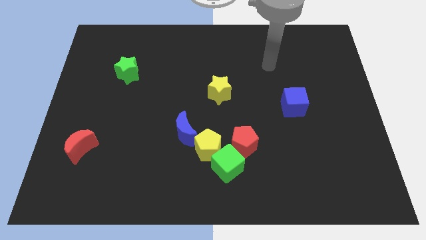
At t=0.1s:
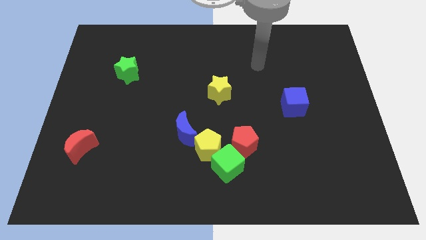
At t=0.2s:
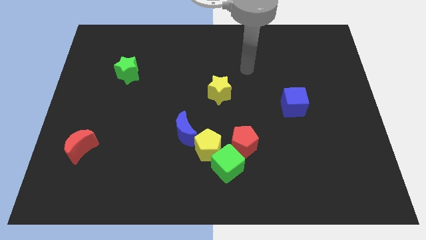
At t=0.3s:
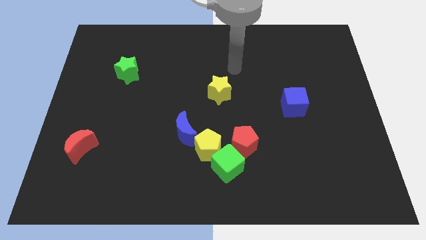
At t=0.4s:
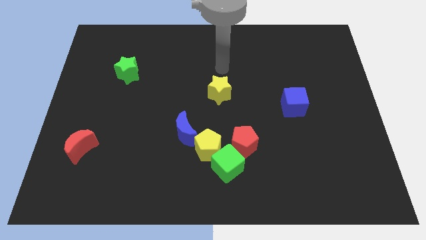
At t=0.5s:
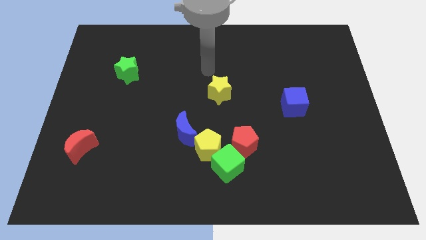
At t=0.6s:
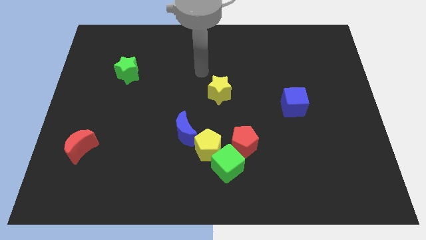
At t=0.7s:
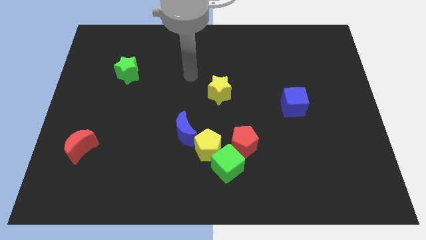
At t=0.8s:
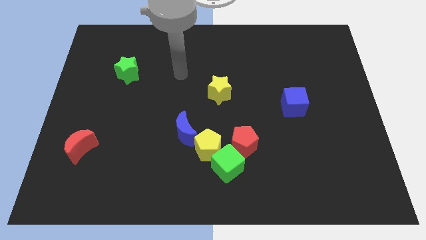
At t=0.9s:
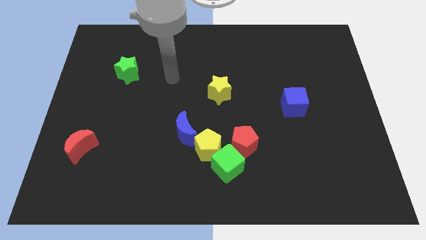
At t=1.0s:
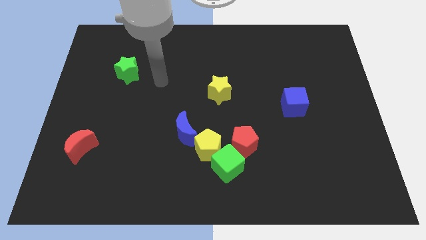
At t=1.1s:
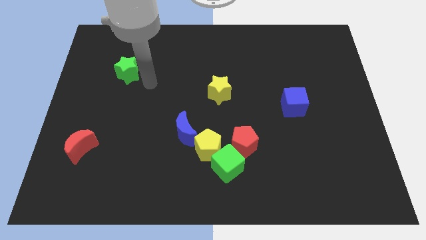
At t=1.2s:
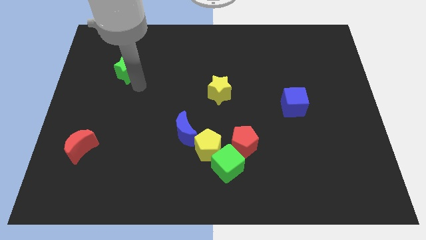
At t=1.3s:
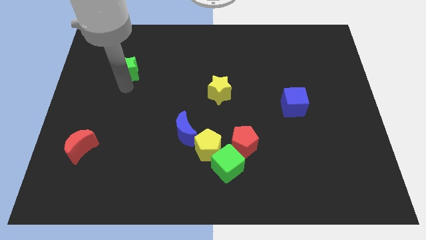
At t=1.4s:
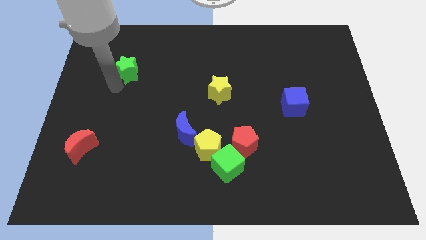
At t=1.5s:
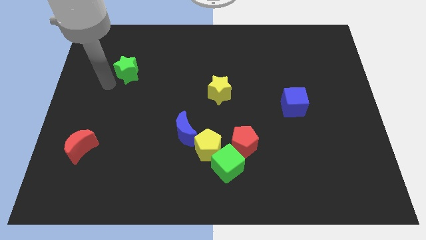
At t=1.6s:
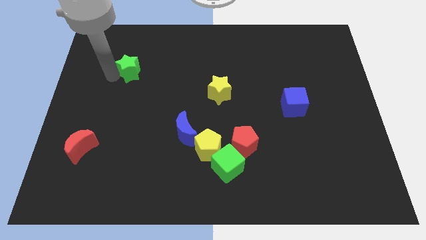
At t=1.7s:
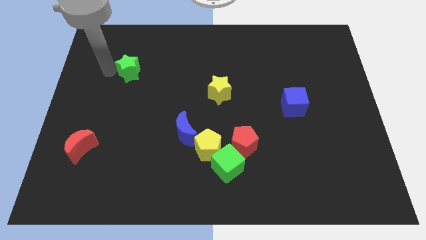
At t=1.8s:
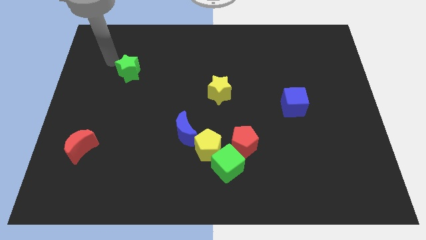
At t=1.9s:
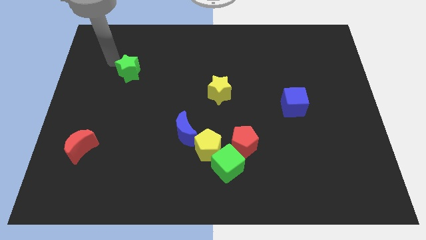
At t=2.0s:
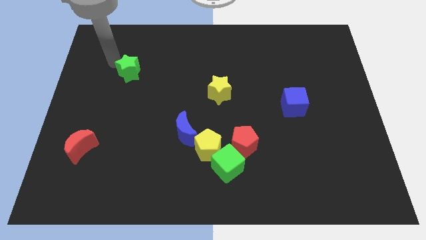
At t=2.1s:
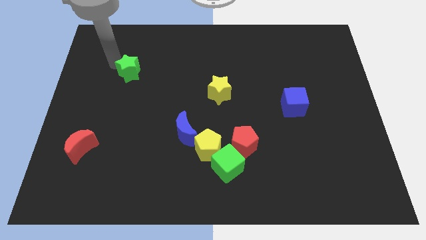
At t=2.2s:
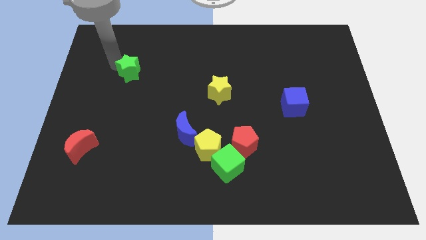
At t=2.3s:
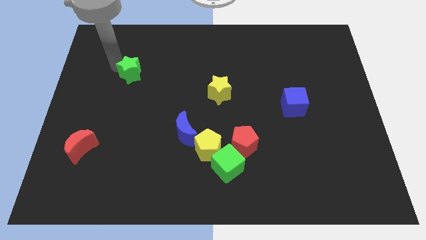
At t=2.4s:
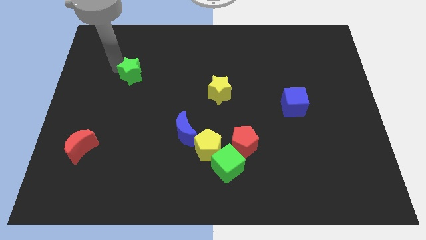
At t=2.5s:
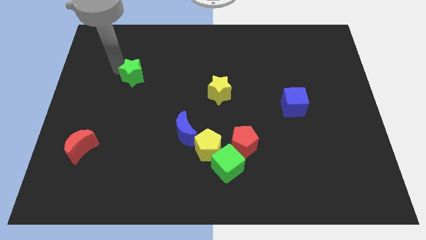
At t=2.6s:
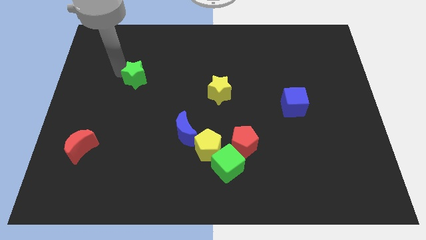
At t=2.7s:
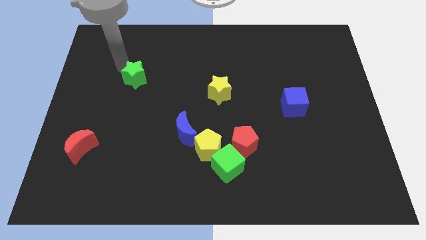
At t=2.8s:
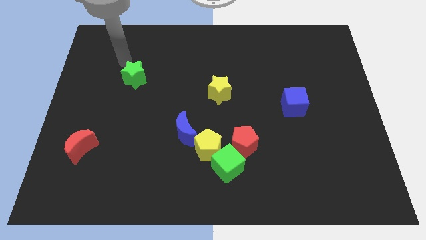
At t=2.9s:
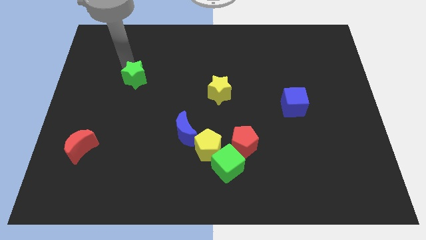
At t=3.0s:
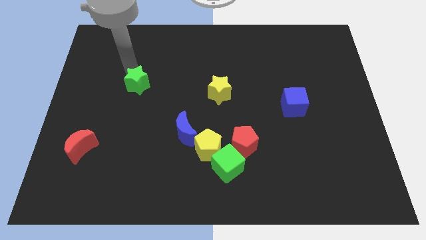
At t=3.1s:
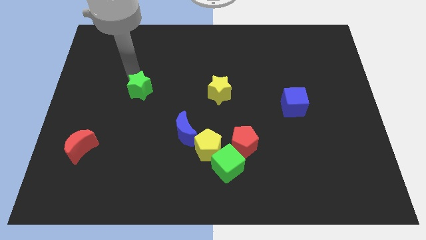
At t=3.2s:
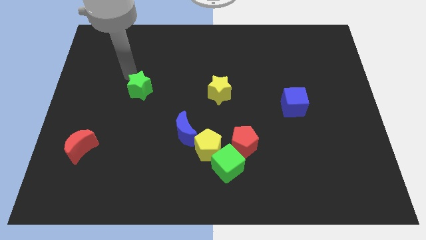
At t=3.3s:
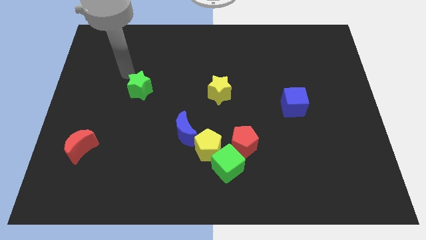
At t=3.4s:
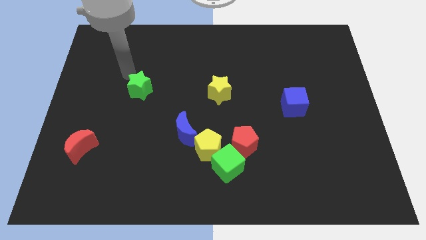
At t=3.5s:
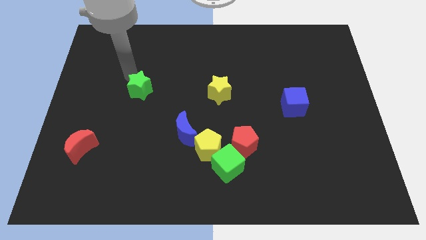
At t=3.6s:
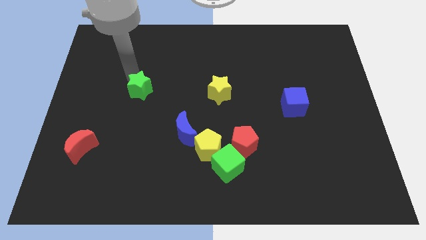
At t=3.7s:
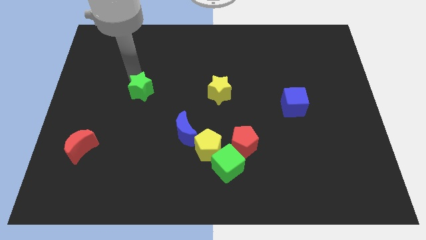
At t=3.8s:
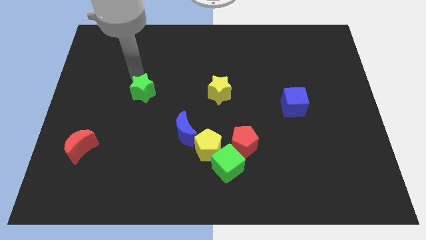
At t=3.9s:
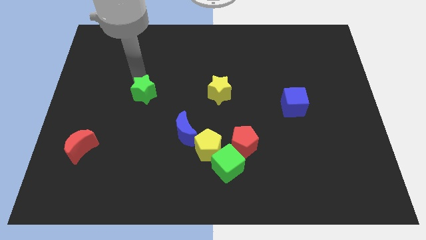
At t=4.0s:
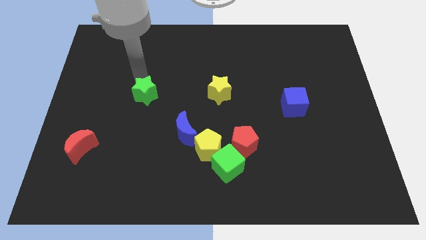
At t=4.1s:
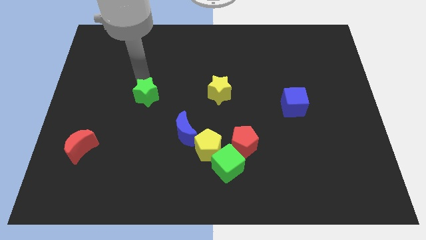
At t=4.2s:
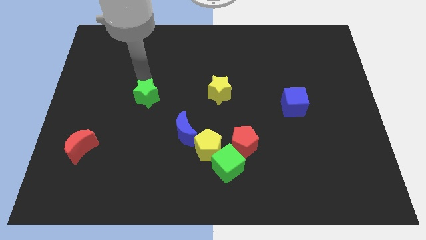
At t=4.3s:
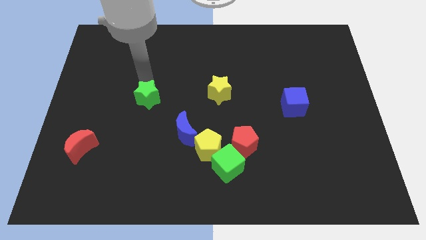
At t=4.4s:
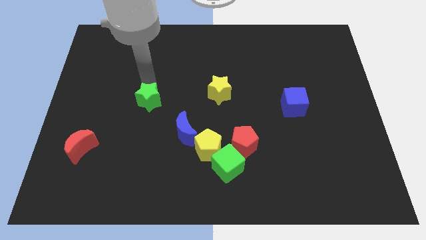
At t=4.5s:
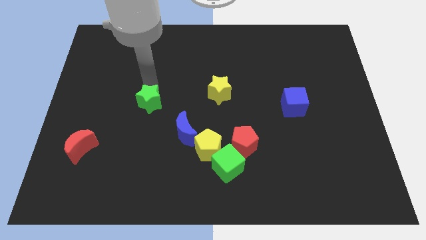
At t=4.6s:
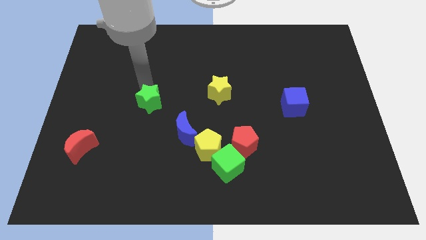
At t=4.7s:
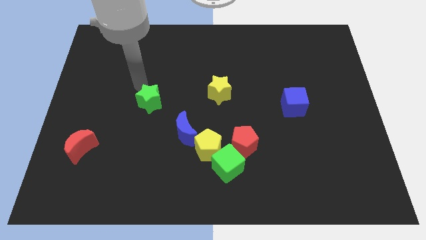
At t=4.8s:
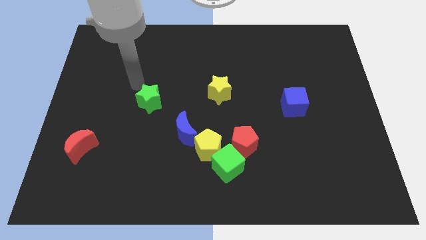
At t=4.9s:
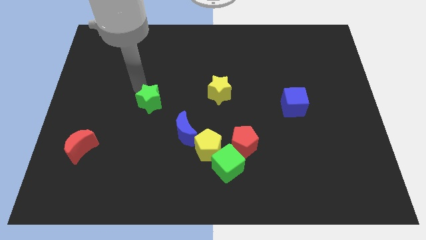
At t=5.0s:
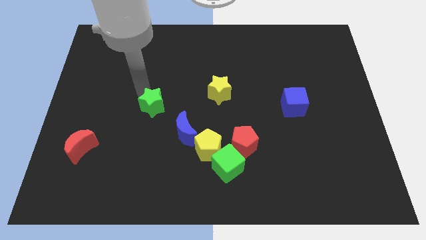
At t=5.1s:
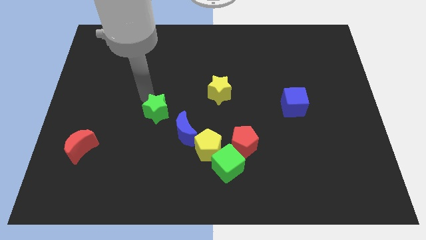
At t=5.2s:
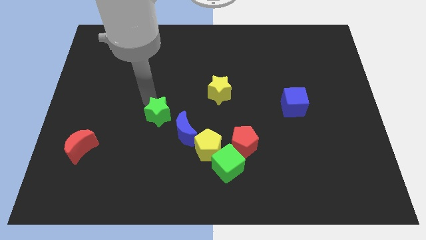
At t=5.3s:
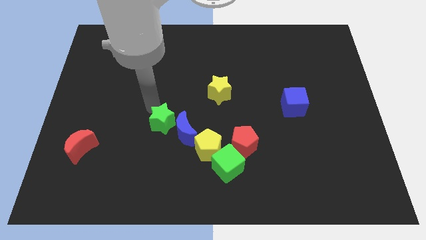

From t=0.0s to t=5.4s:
move the green star close to the blue moon

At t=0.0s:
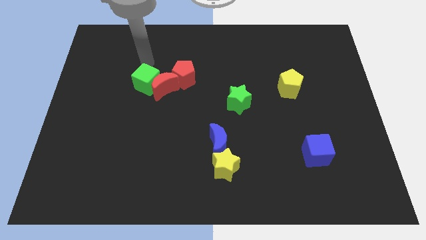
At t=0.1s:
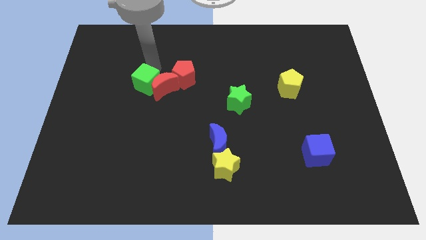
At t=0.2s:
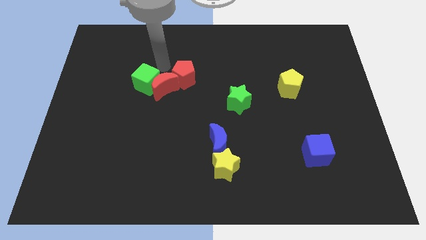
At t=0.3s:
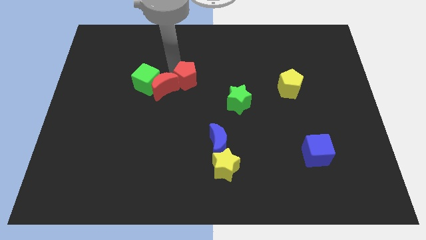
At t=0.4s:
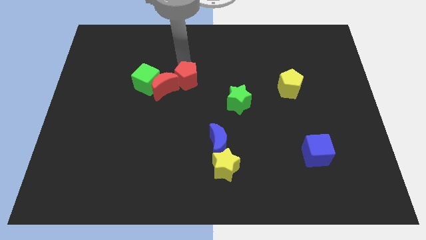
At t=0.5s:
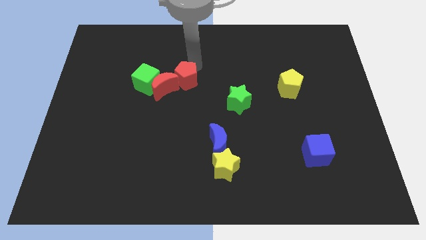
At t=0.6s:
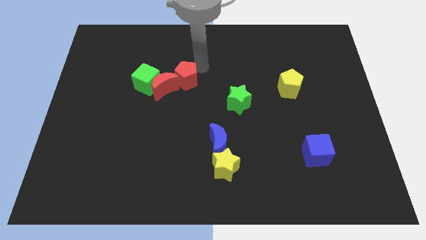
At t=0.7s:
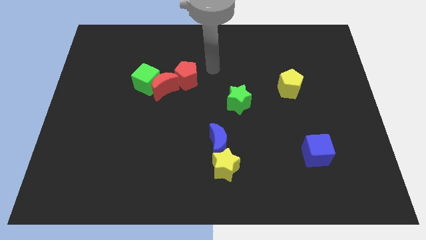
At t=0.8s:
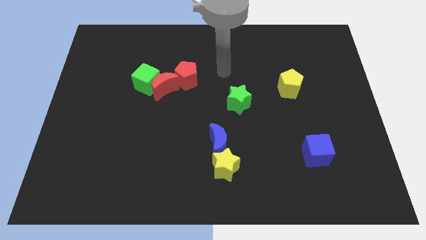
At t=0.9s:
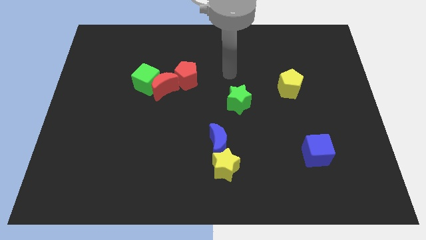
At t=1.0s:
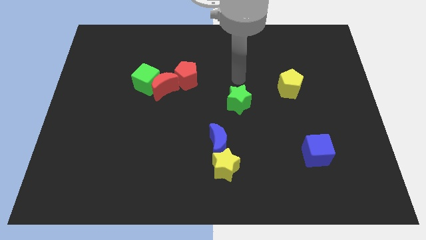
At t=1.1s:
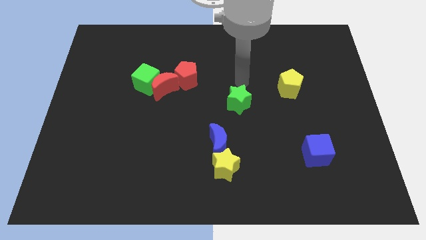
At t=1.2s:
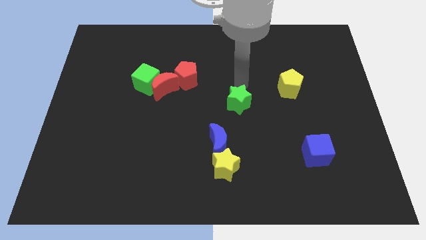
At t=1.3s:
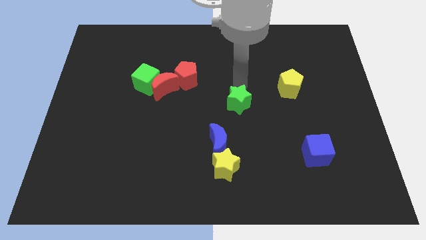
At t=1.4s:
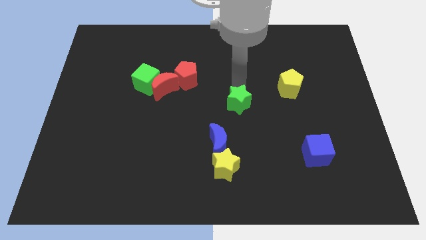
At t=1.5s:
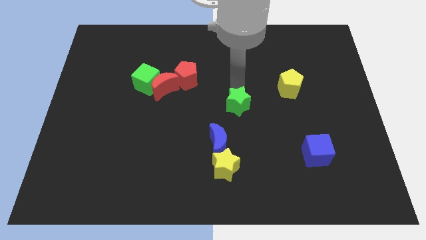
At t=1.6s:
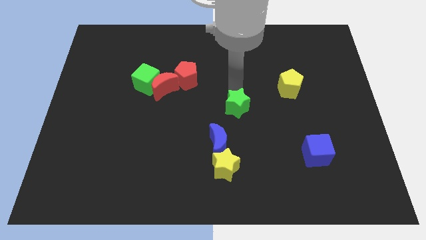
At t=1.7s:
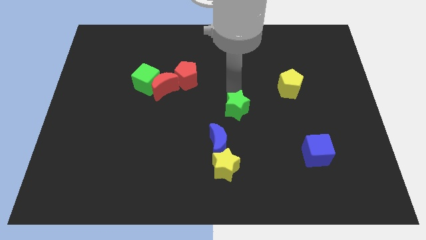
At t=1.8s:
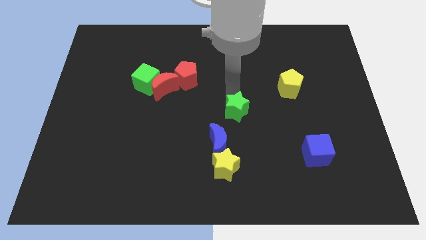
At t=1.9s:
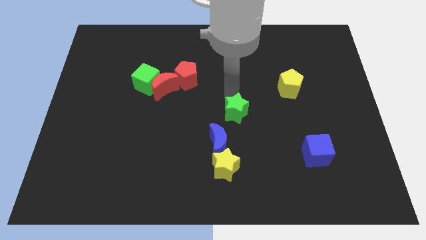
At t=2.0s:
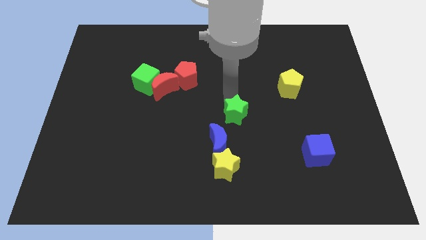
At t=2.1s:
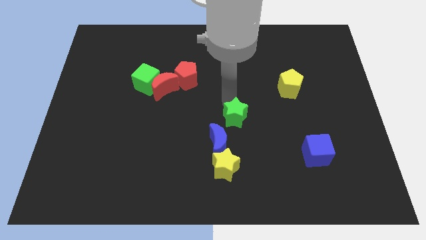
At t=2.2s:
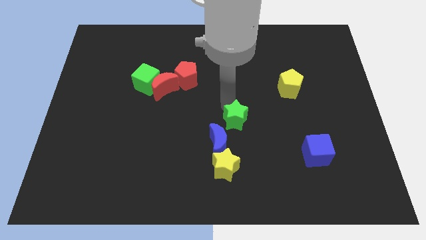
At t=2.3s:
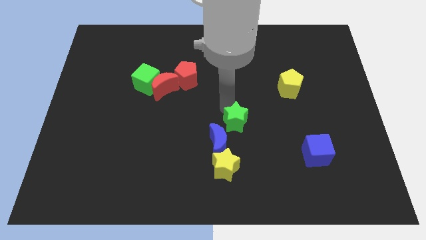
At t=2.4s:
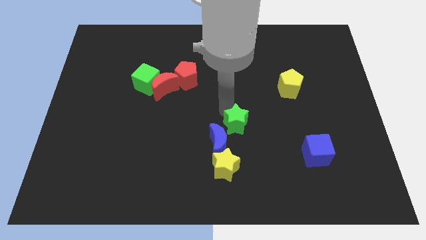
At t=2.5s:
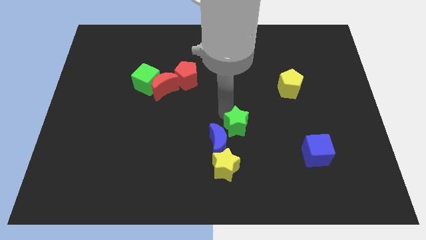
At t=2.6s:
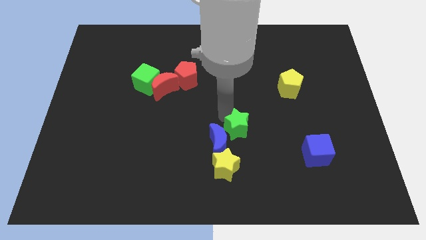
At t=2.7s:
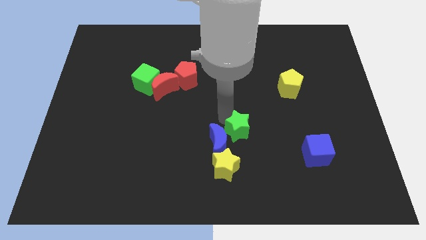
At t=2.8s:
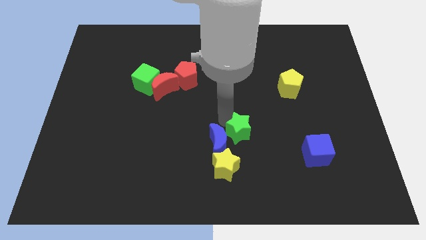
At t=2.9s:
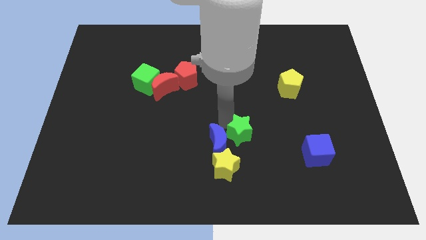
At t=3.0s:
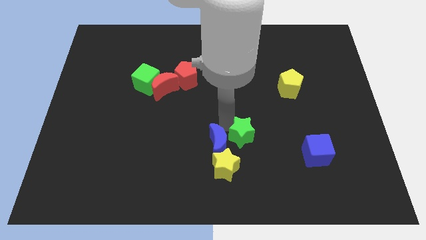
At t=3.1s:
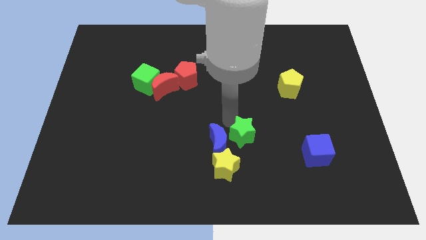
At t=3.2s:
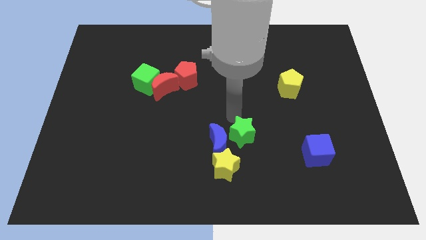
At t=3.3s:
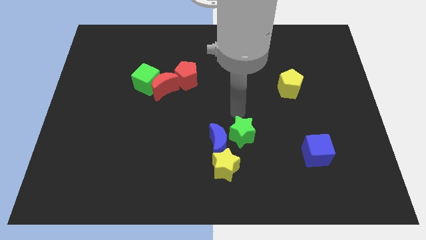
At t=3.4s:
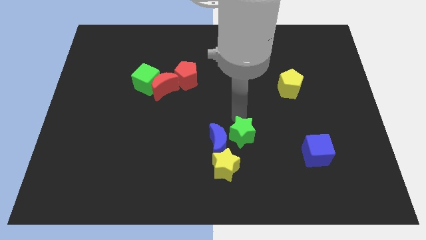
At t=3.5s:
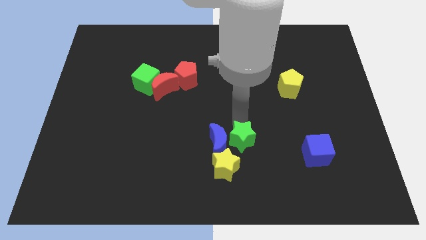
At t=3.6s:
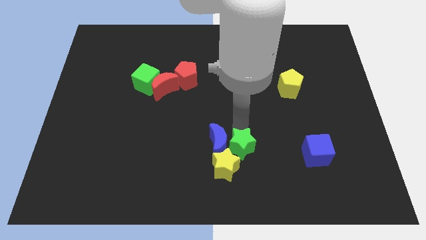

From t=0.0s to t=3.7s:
slide the green star to the yellow star
